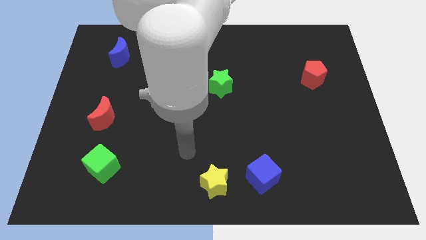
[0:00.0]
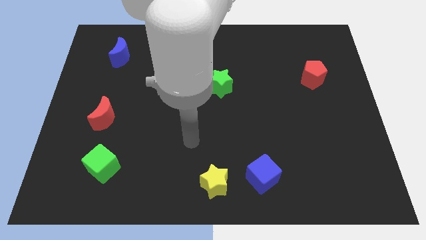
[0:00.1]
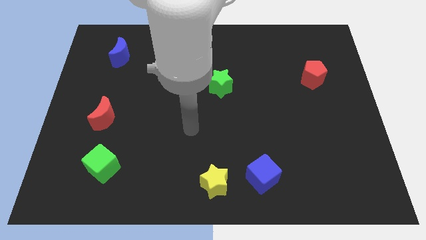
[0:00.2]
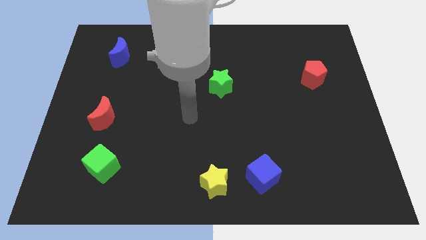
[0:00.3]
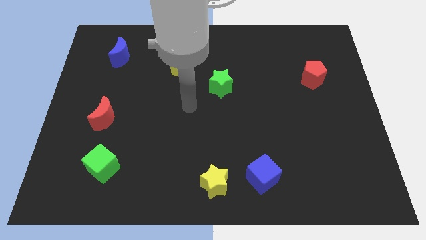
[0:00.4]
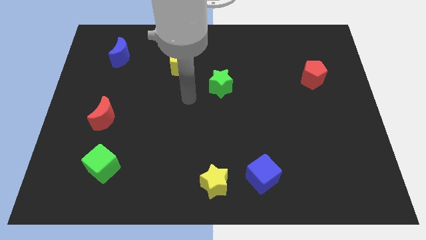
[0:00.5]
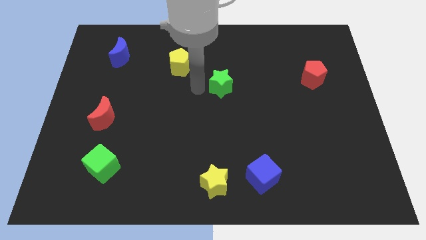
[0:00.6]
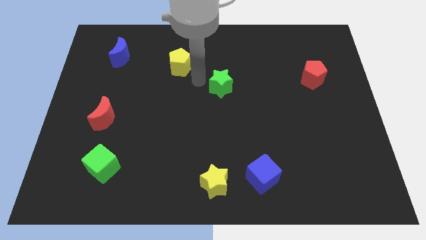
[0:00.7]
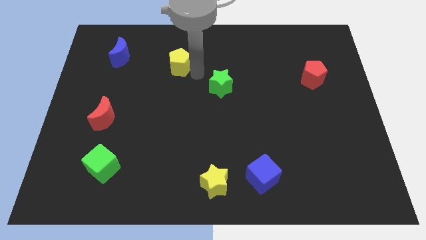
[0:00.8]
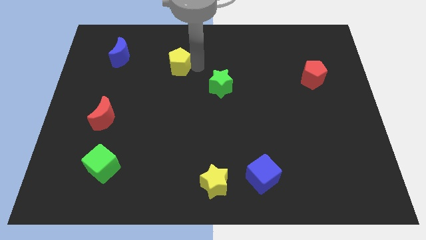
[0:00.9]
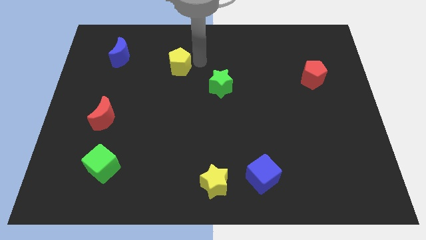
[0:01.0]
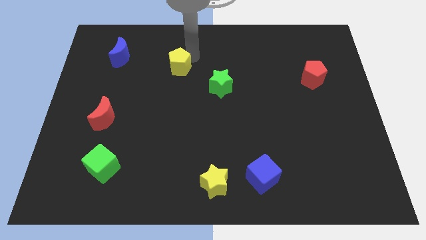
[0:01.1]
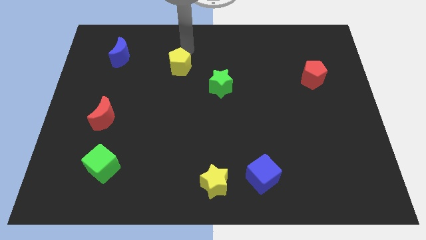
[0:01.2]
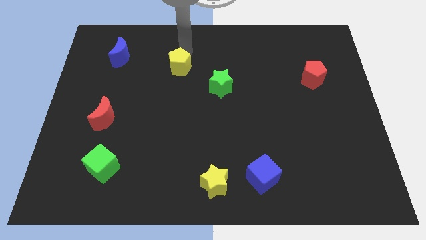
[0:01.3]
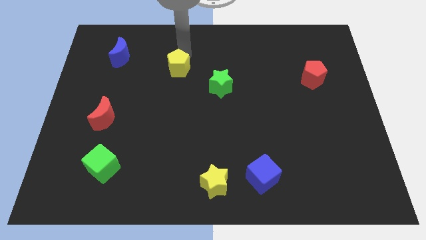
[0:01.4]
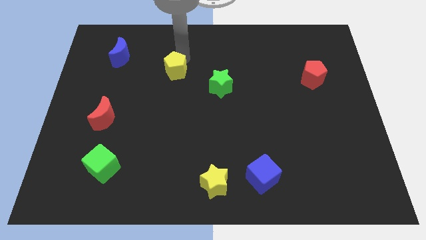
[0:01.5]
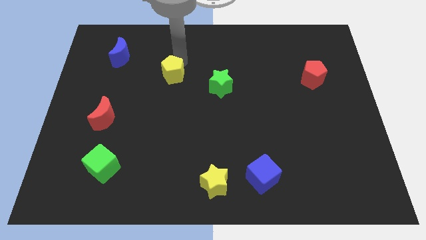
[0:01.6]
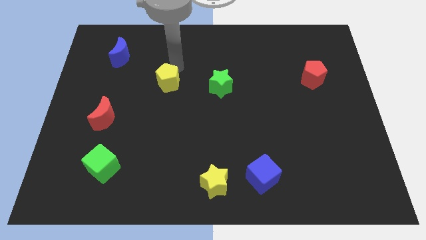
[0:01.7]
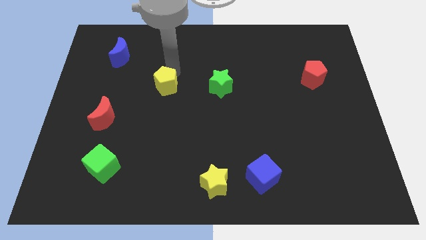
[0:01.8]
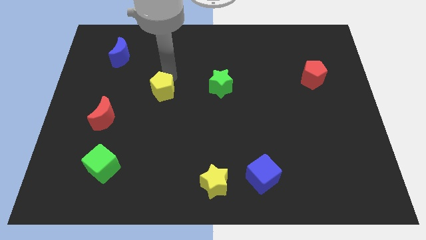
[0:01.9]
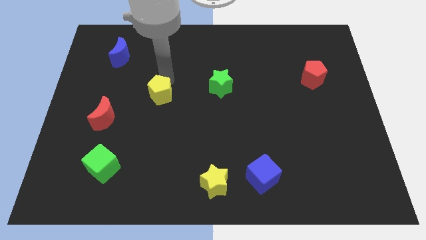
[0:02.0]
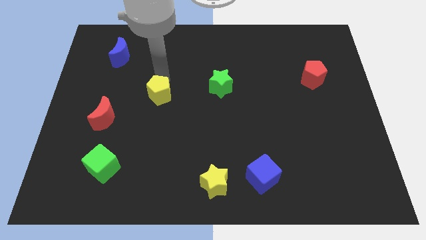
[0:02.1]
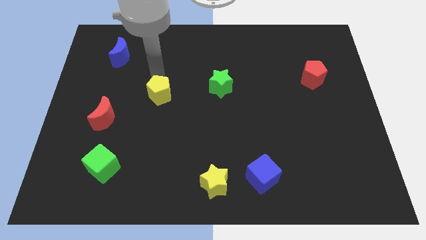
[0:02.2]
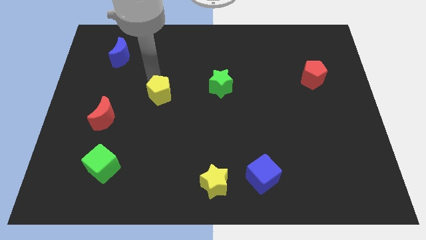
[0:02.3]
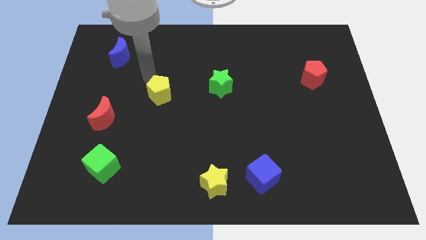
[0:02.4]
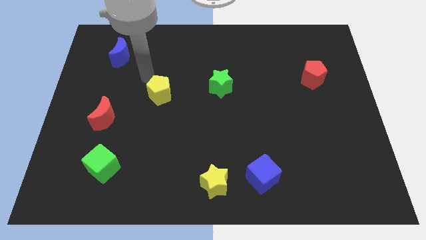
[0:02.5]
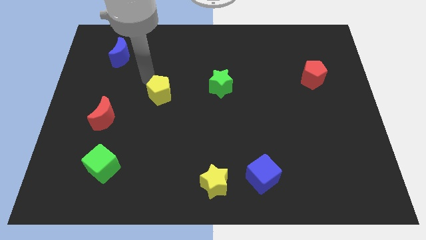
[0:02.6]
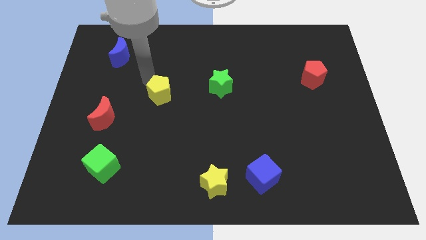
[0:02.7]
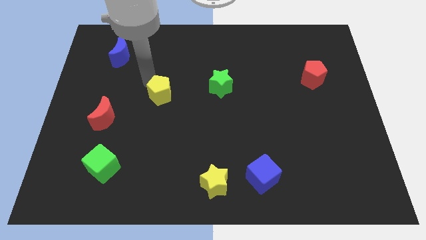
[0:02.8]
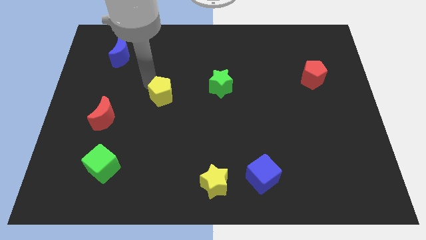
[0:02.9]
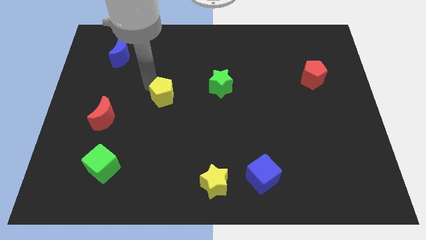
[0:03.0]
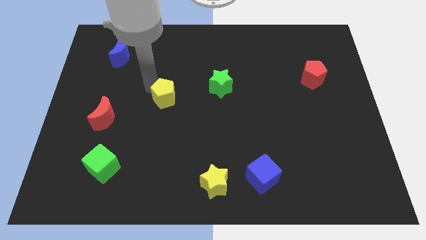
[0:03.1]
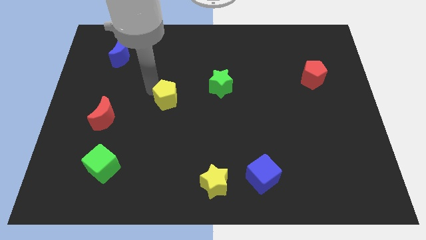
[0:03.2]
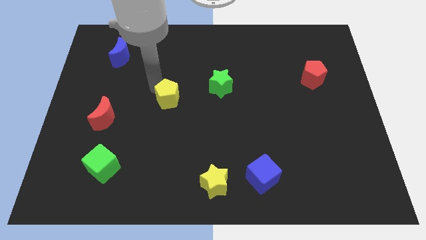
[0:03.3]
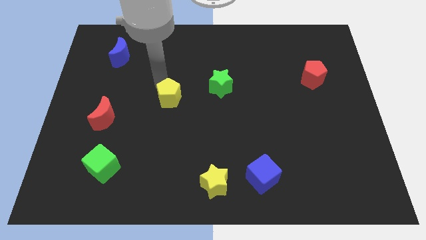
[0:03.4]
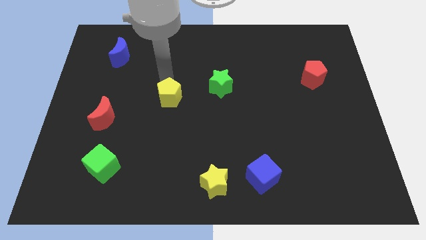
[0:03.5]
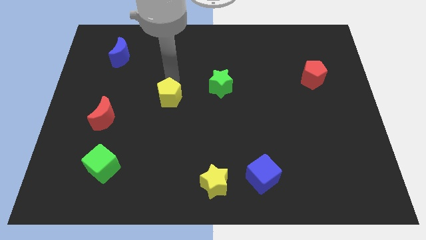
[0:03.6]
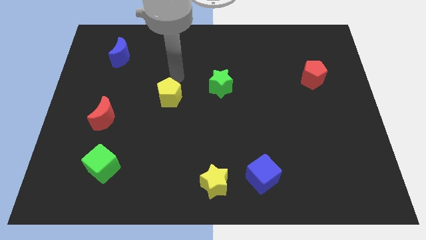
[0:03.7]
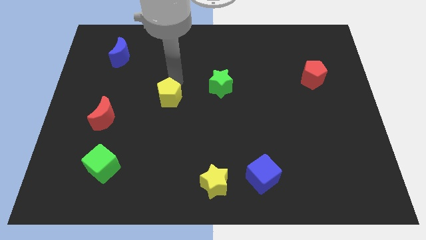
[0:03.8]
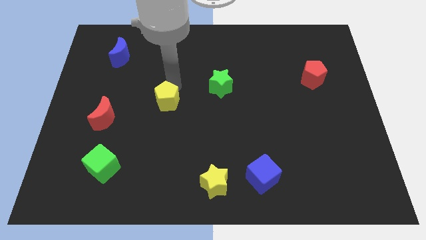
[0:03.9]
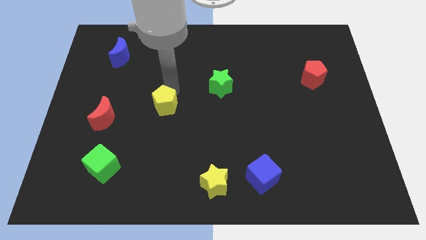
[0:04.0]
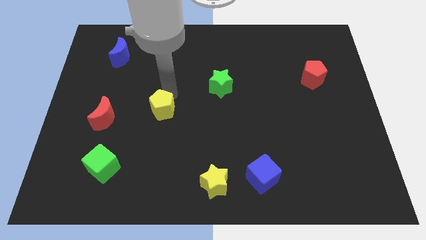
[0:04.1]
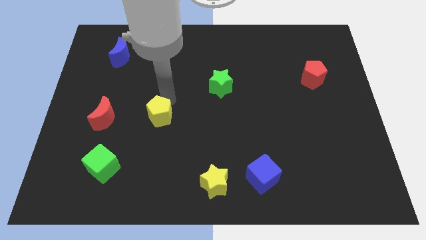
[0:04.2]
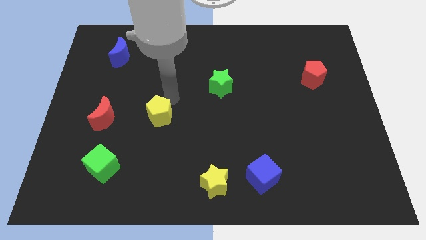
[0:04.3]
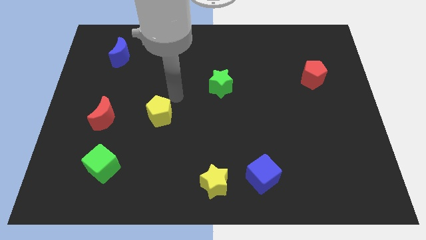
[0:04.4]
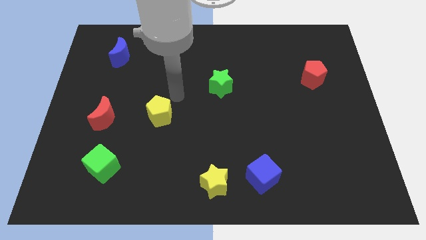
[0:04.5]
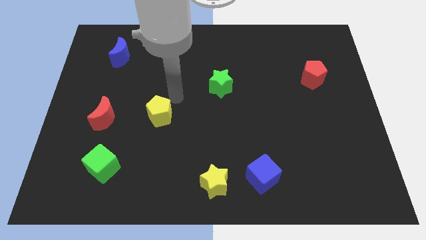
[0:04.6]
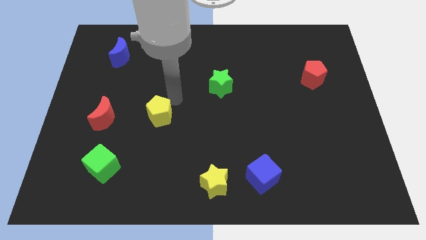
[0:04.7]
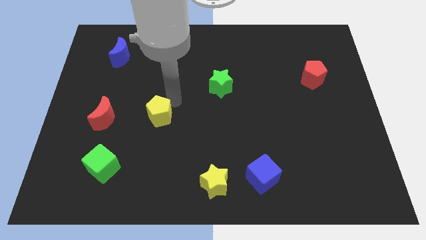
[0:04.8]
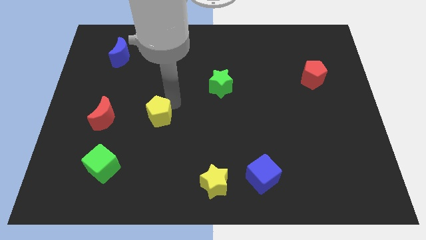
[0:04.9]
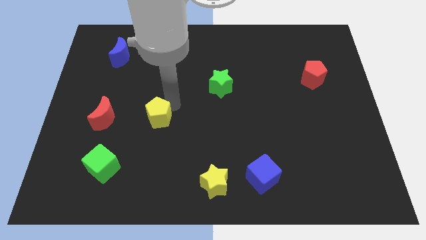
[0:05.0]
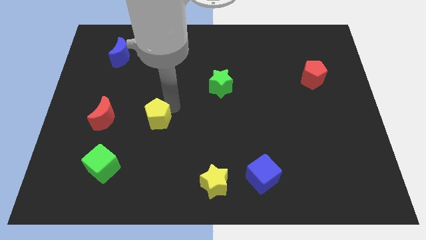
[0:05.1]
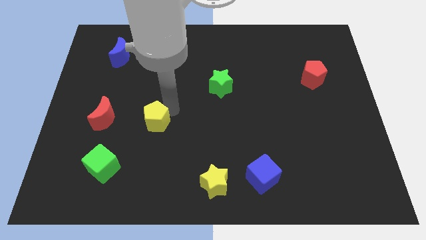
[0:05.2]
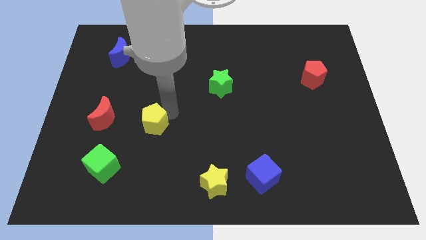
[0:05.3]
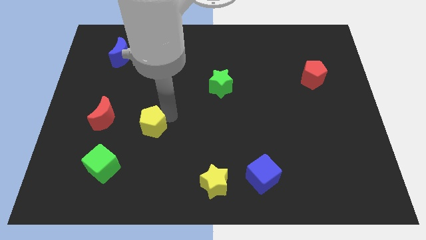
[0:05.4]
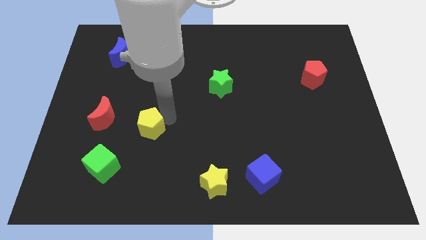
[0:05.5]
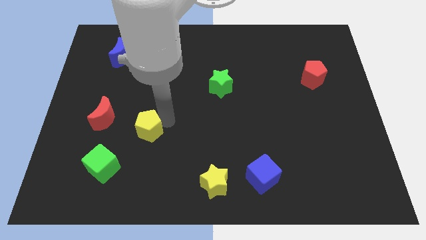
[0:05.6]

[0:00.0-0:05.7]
slide the yellow pentagon to the top right of the green cube
